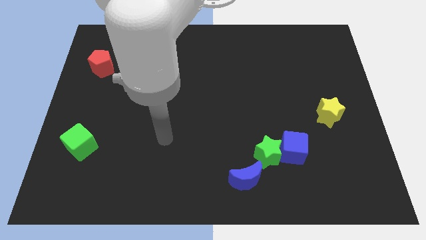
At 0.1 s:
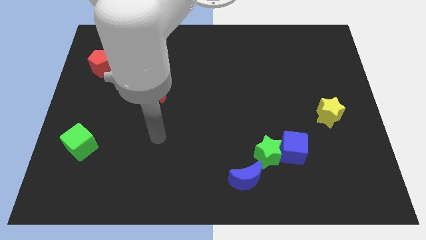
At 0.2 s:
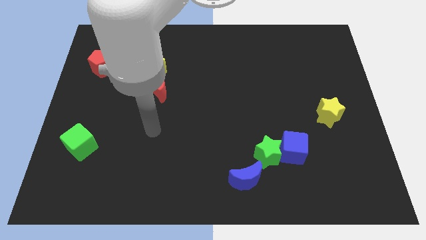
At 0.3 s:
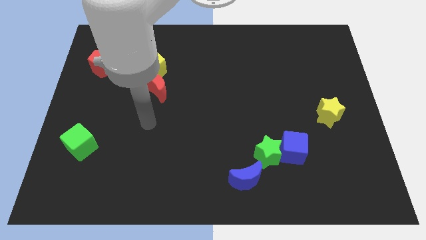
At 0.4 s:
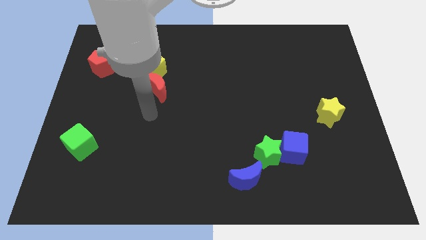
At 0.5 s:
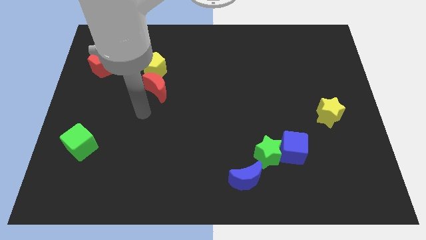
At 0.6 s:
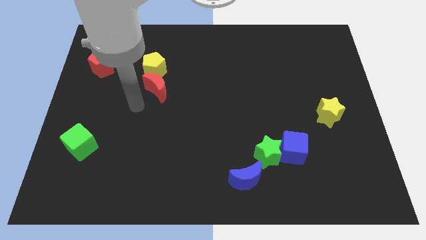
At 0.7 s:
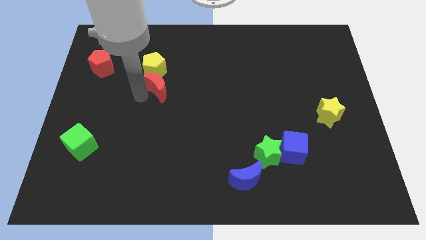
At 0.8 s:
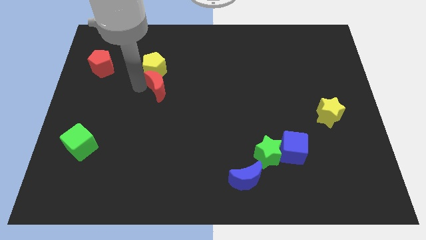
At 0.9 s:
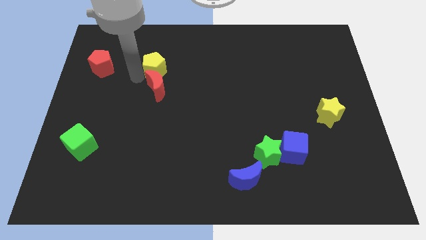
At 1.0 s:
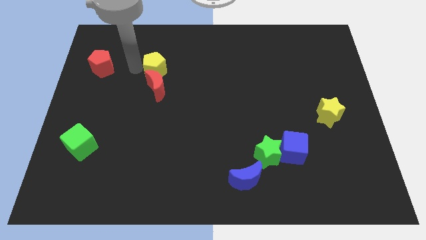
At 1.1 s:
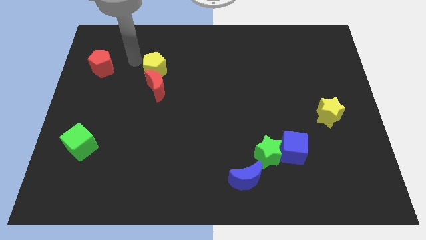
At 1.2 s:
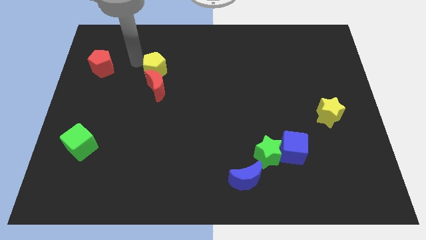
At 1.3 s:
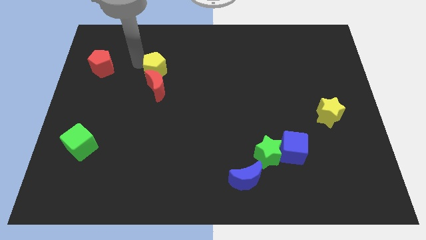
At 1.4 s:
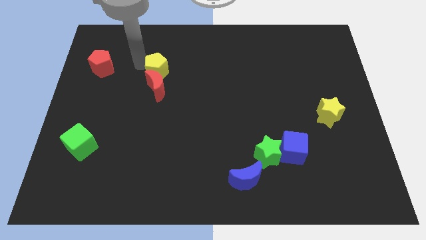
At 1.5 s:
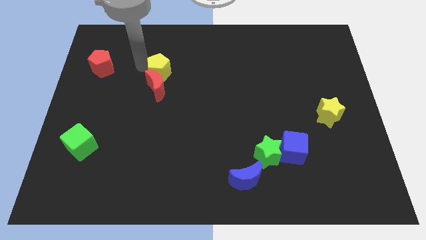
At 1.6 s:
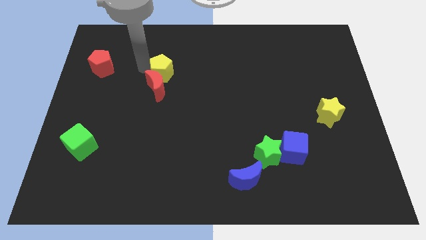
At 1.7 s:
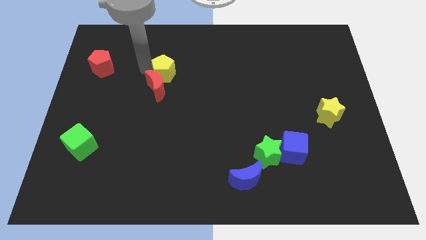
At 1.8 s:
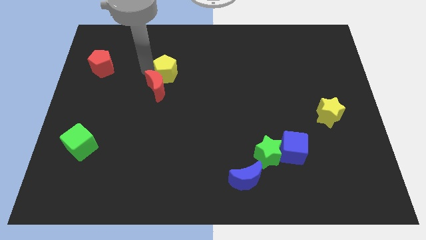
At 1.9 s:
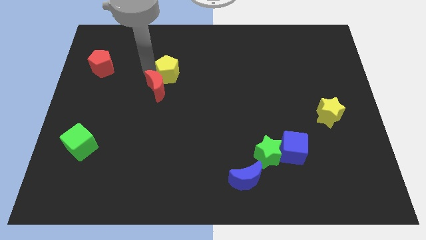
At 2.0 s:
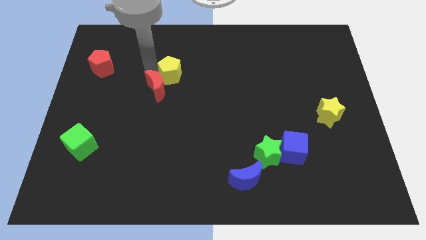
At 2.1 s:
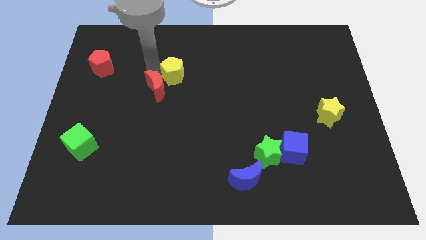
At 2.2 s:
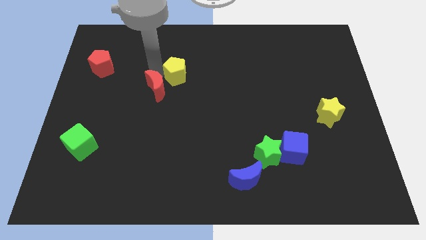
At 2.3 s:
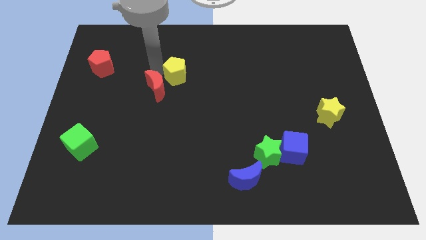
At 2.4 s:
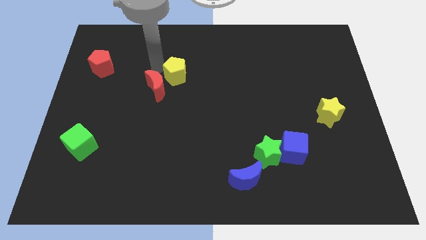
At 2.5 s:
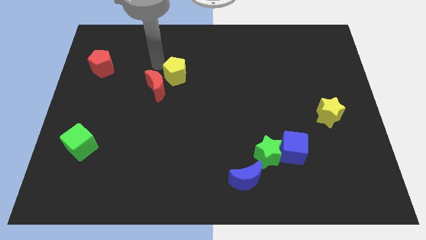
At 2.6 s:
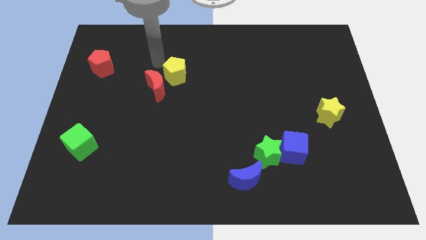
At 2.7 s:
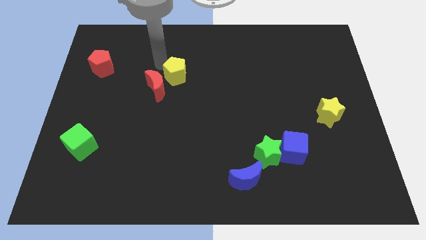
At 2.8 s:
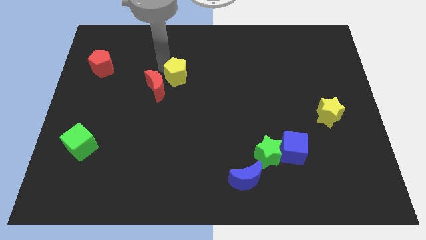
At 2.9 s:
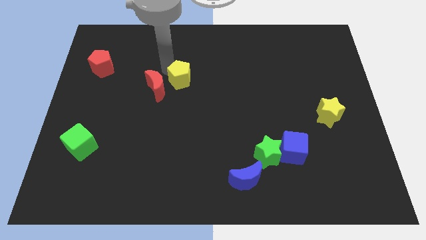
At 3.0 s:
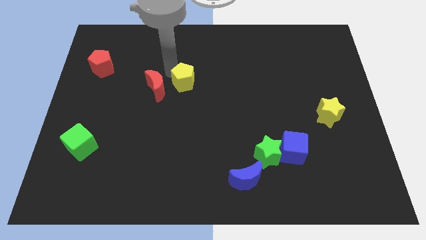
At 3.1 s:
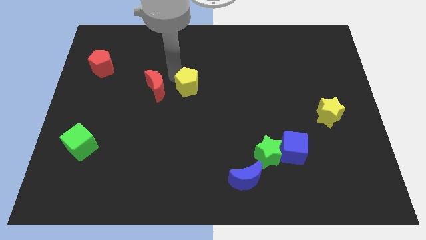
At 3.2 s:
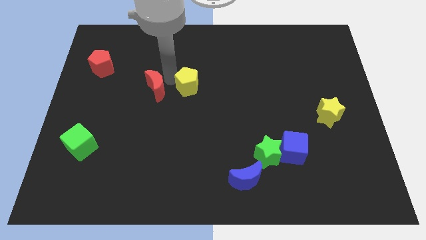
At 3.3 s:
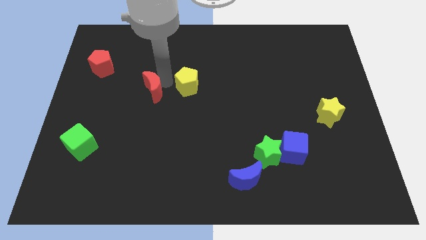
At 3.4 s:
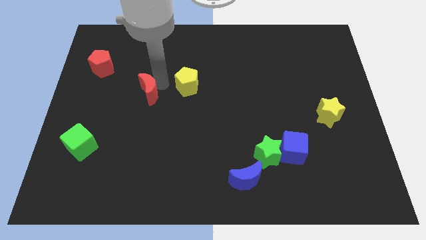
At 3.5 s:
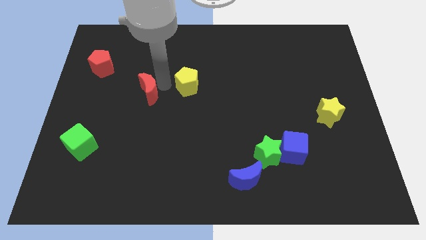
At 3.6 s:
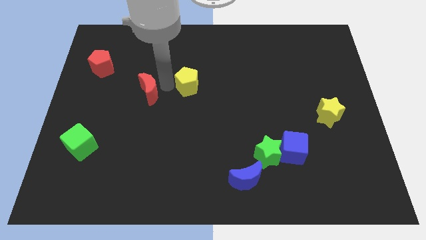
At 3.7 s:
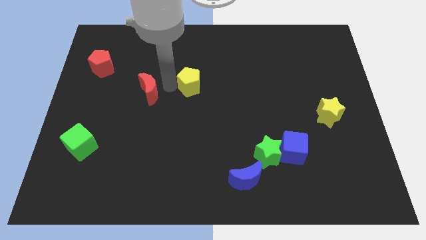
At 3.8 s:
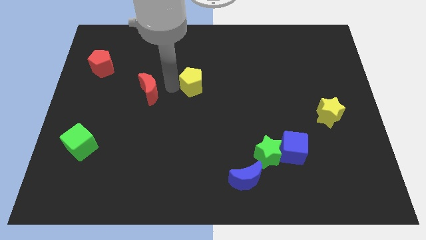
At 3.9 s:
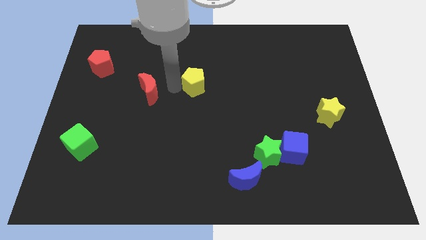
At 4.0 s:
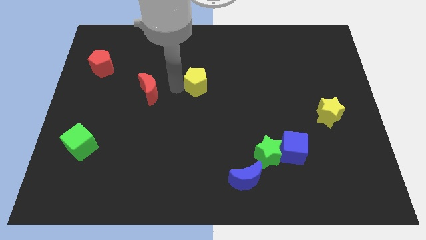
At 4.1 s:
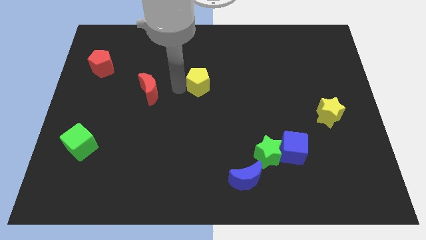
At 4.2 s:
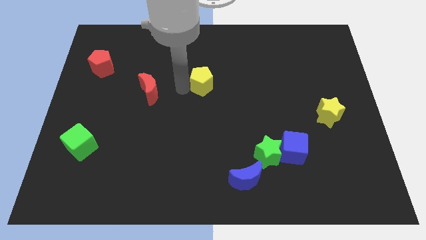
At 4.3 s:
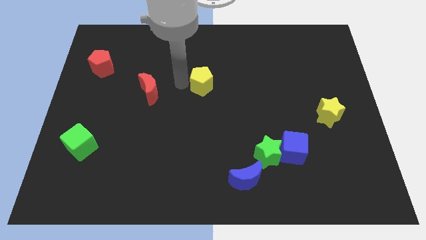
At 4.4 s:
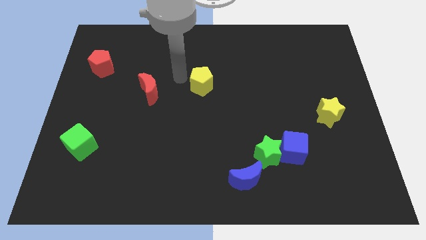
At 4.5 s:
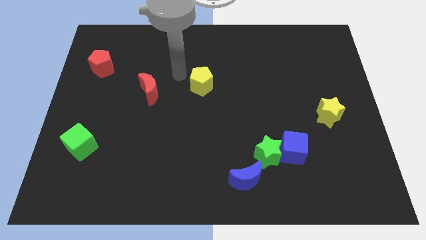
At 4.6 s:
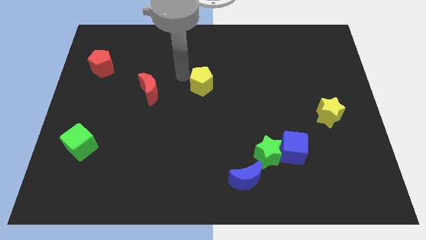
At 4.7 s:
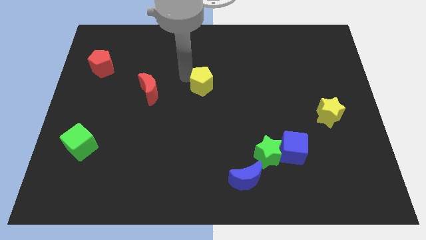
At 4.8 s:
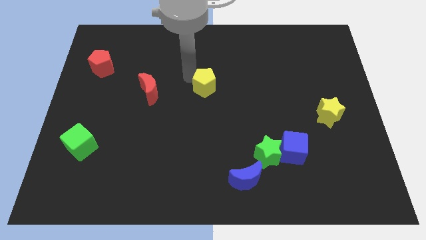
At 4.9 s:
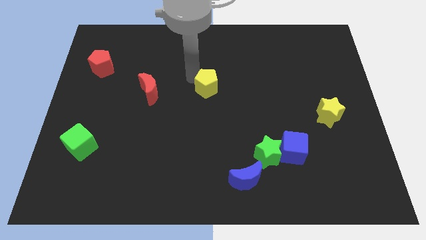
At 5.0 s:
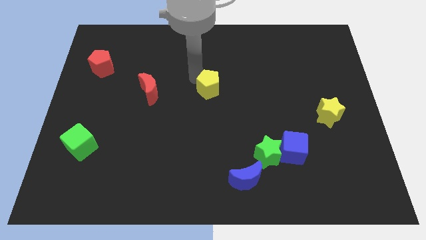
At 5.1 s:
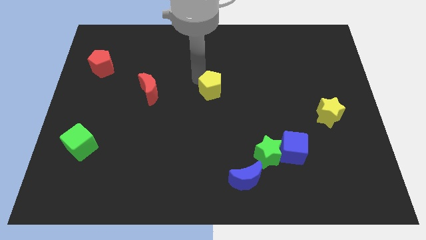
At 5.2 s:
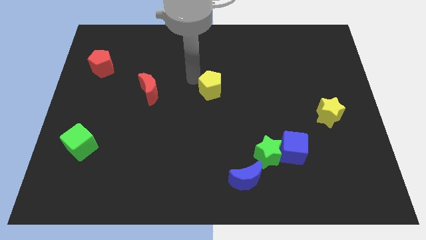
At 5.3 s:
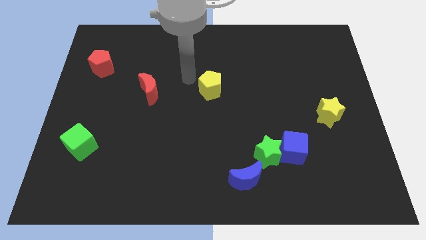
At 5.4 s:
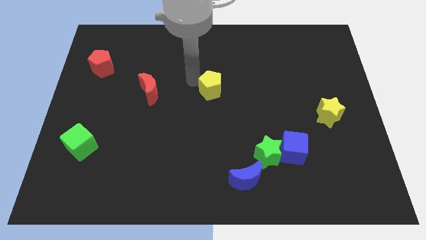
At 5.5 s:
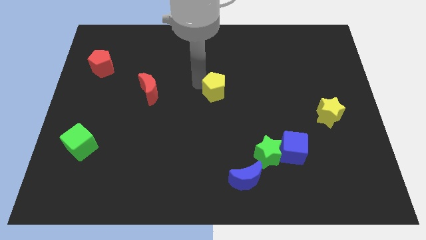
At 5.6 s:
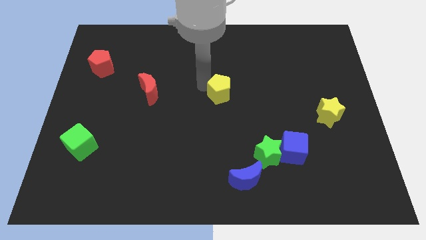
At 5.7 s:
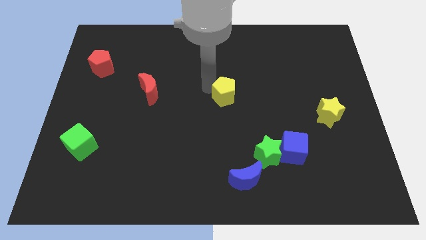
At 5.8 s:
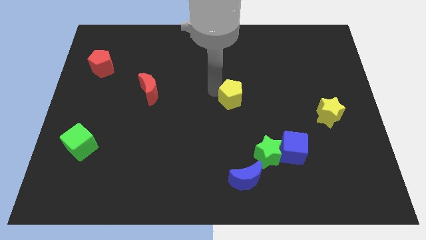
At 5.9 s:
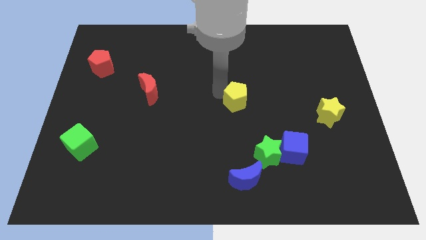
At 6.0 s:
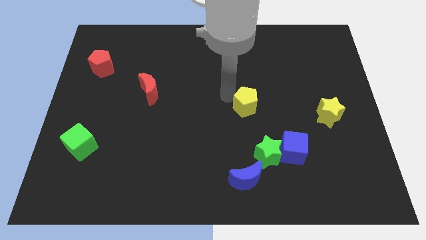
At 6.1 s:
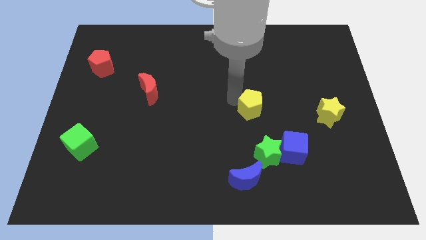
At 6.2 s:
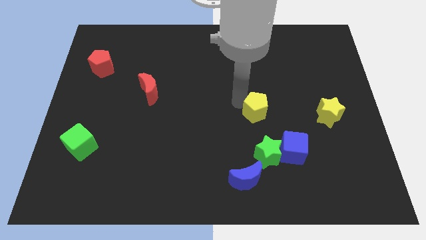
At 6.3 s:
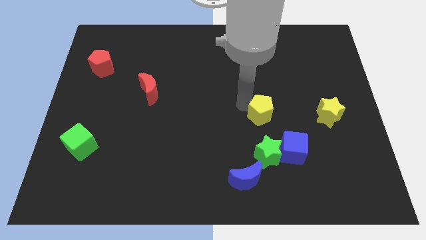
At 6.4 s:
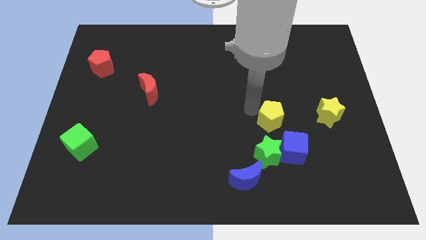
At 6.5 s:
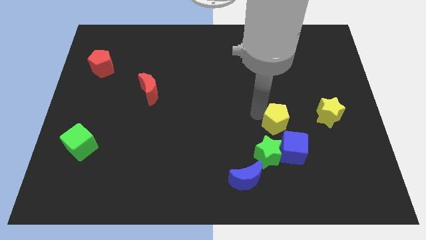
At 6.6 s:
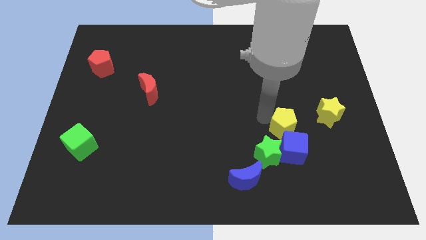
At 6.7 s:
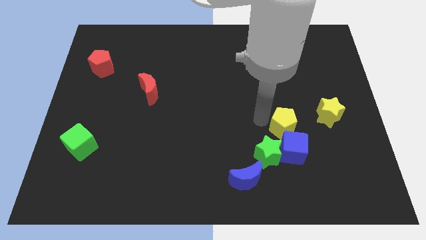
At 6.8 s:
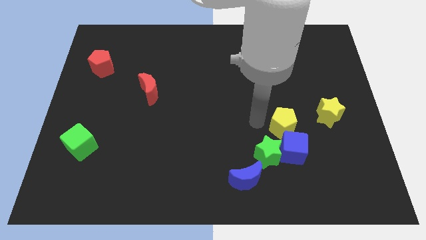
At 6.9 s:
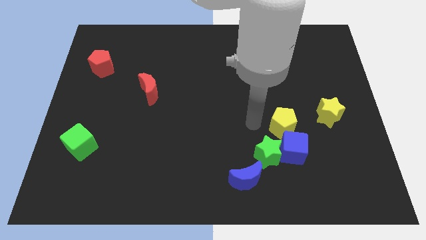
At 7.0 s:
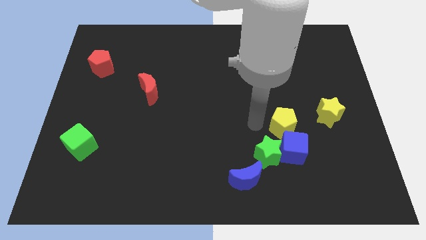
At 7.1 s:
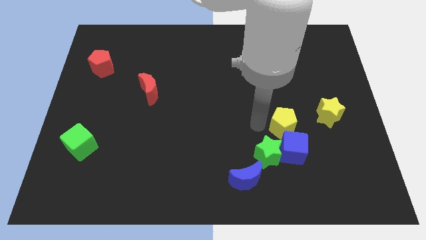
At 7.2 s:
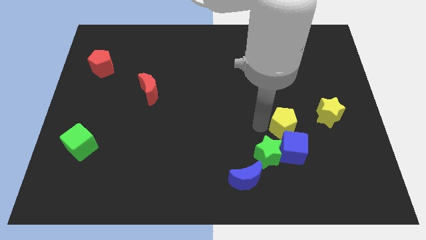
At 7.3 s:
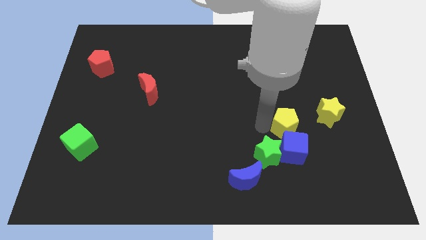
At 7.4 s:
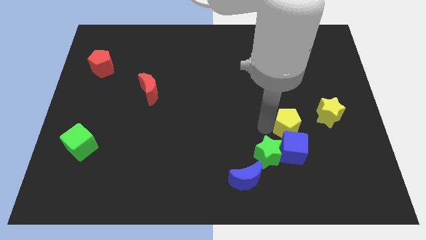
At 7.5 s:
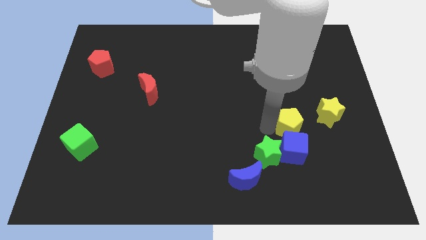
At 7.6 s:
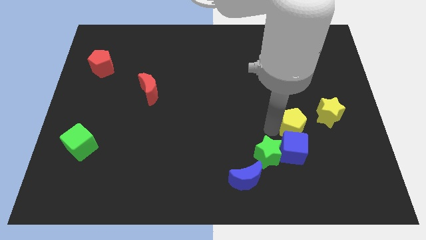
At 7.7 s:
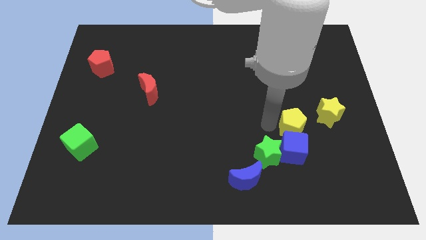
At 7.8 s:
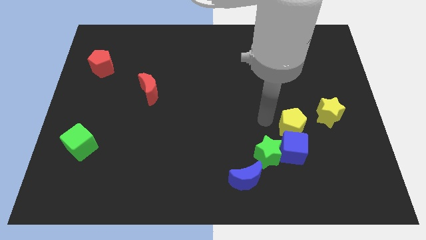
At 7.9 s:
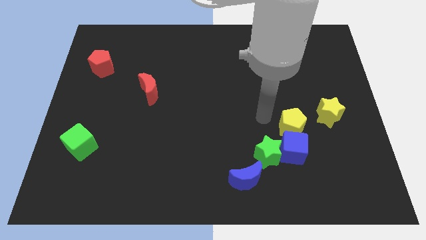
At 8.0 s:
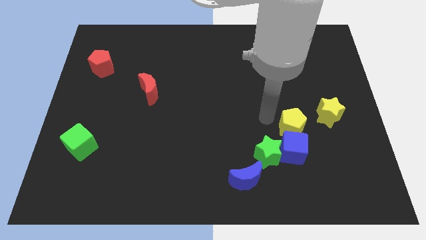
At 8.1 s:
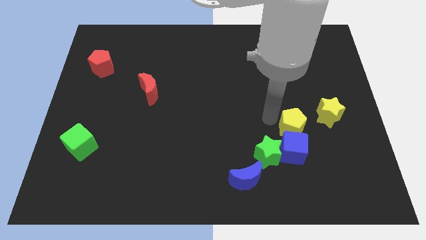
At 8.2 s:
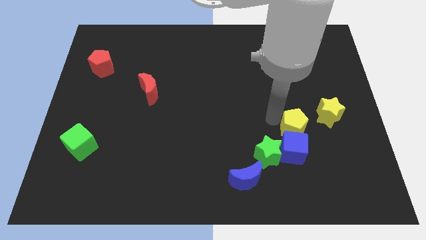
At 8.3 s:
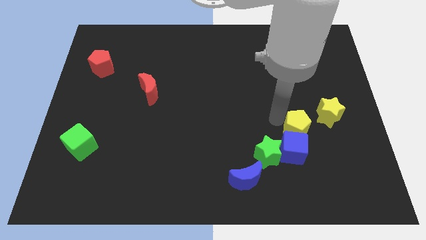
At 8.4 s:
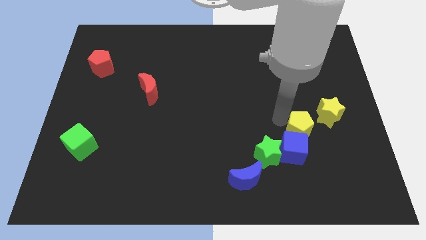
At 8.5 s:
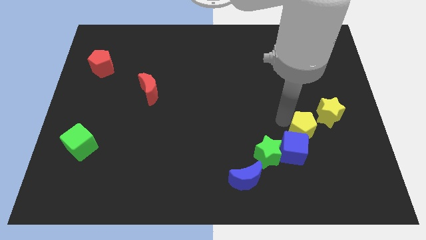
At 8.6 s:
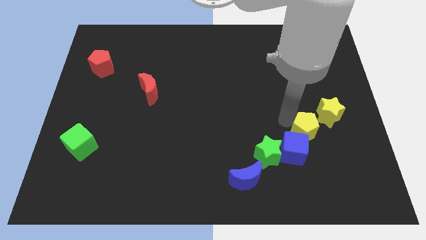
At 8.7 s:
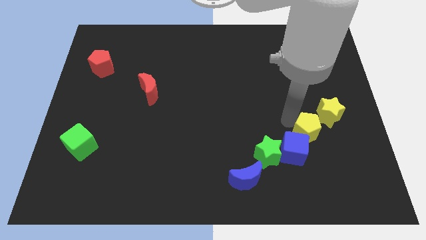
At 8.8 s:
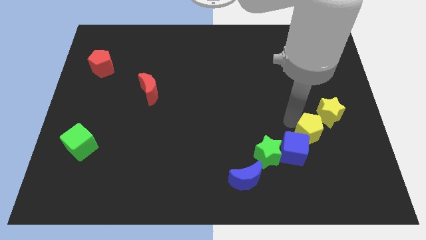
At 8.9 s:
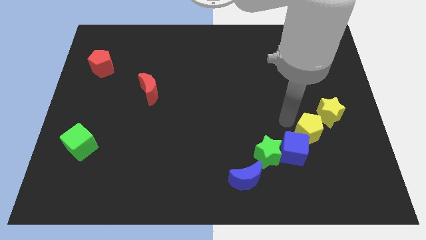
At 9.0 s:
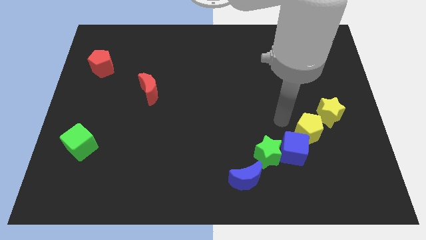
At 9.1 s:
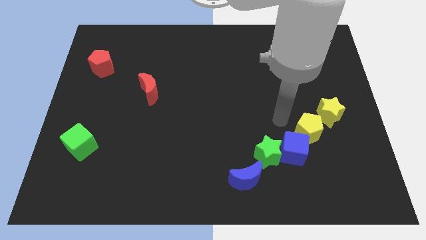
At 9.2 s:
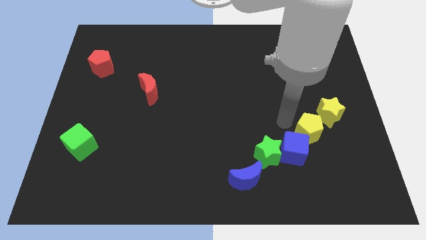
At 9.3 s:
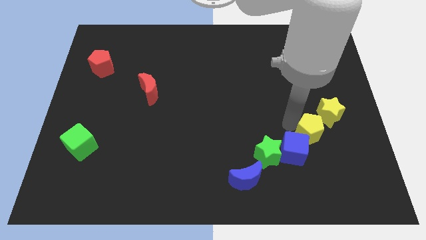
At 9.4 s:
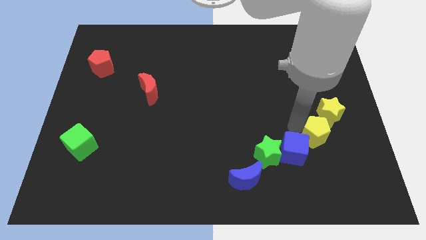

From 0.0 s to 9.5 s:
push the yellow pentagon to the right side of the blue cube
